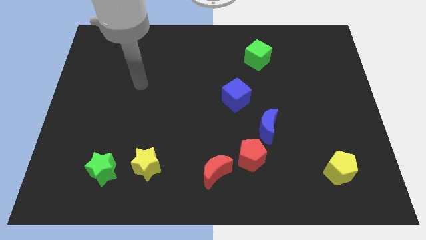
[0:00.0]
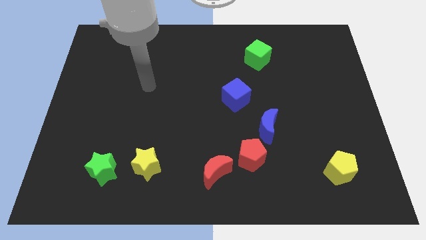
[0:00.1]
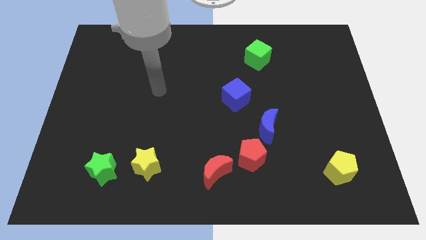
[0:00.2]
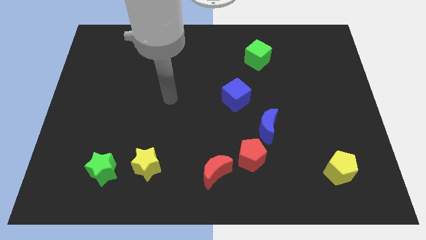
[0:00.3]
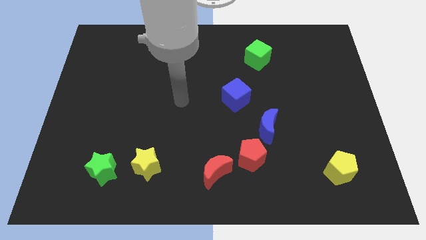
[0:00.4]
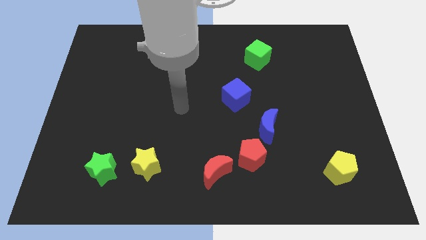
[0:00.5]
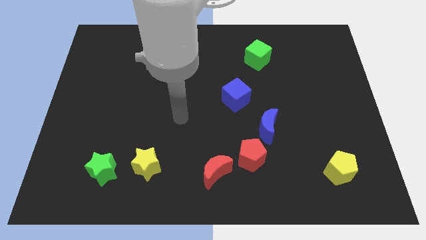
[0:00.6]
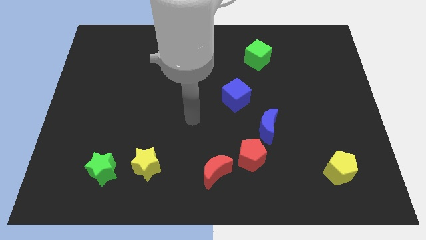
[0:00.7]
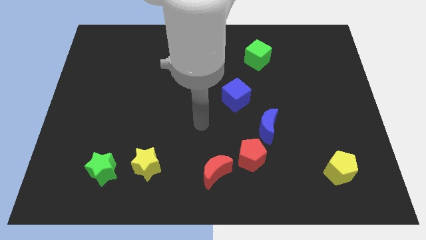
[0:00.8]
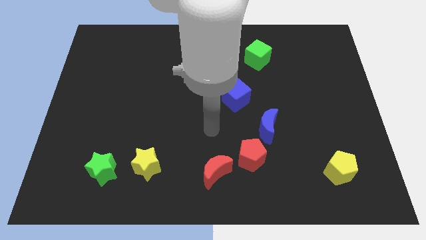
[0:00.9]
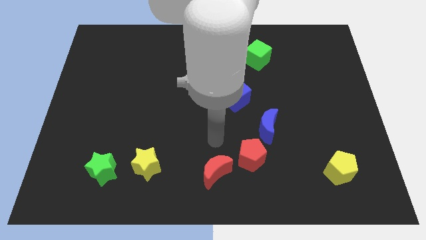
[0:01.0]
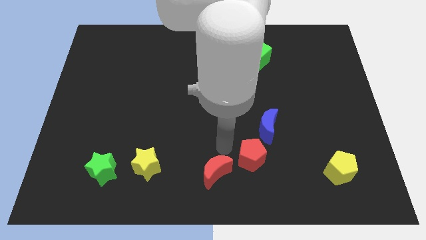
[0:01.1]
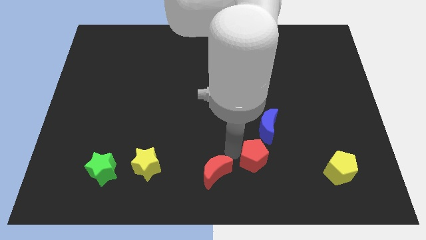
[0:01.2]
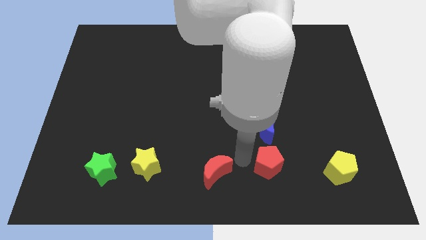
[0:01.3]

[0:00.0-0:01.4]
pull the red moon apart from the red pentagon

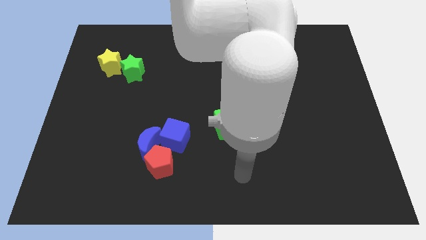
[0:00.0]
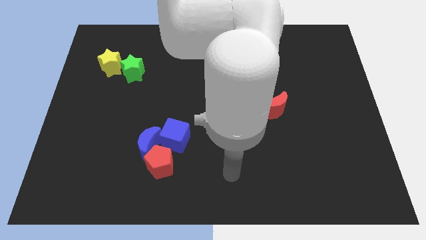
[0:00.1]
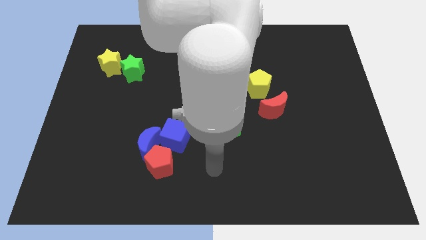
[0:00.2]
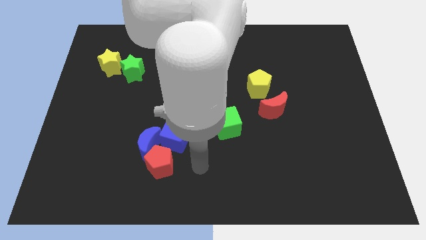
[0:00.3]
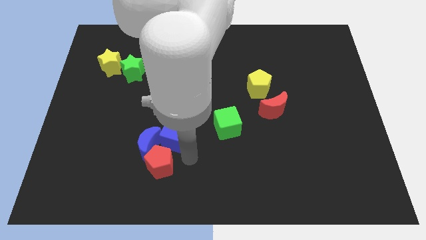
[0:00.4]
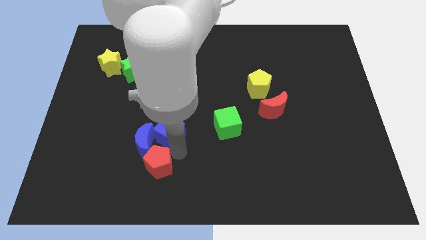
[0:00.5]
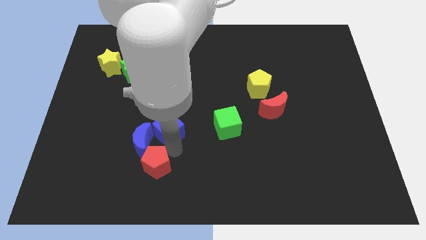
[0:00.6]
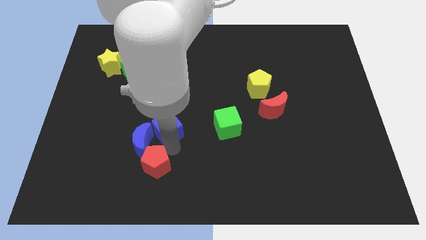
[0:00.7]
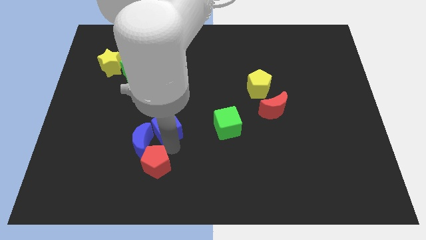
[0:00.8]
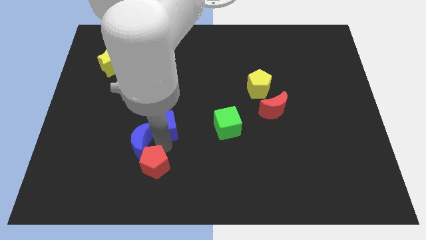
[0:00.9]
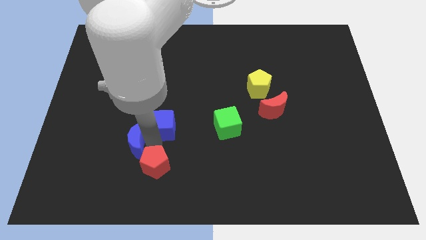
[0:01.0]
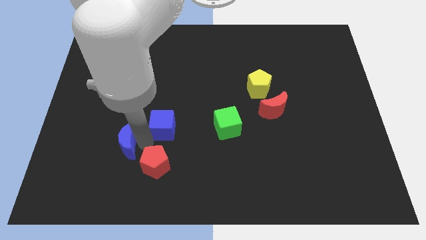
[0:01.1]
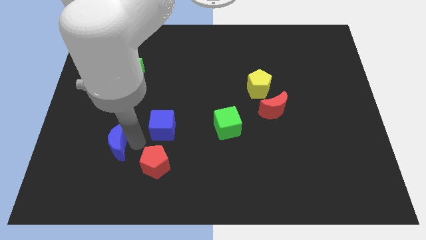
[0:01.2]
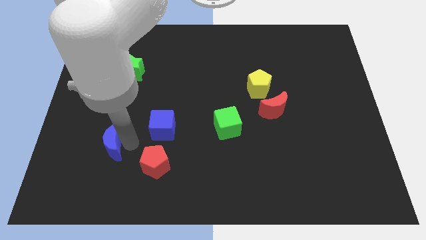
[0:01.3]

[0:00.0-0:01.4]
move the blue moon away from the red pentagon and blue cube

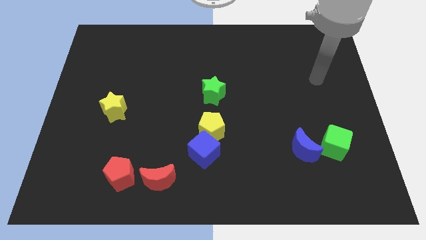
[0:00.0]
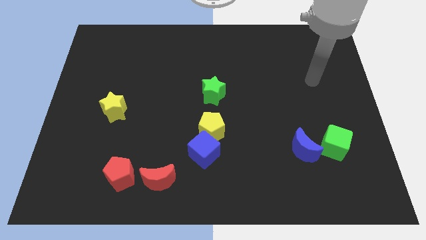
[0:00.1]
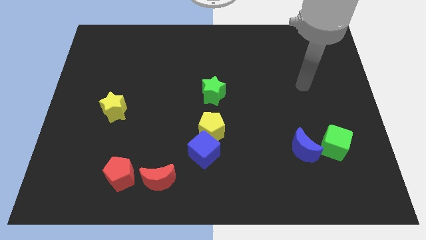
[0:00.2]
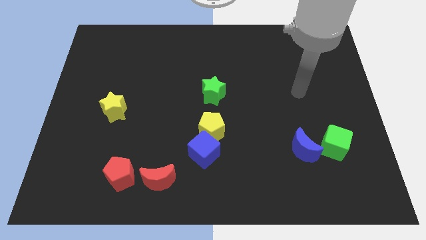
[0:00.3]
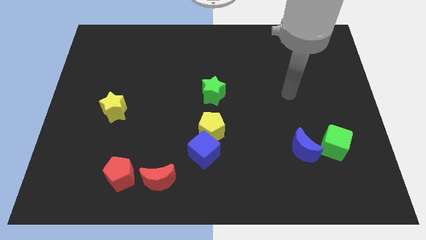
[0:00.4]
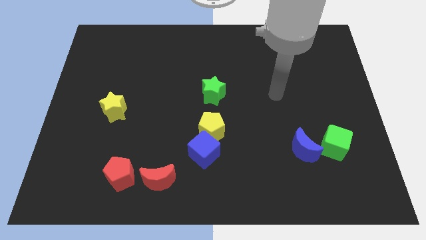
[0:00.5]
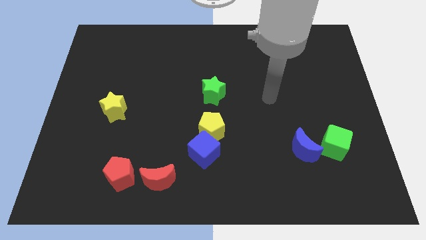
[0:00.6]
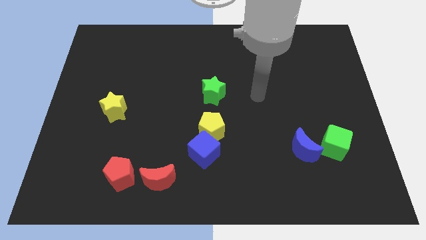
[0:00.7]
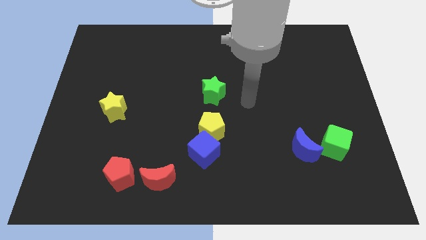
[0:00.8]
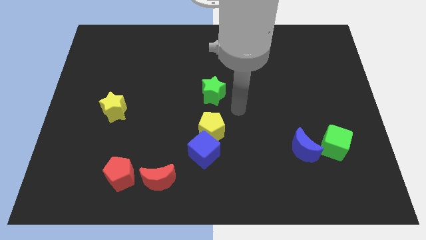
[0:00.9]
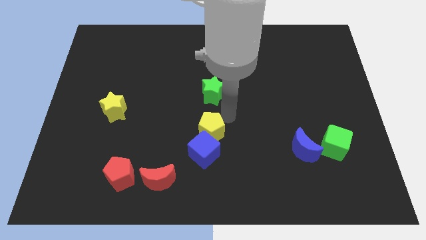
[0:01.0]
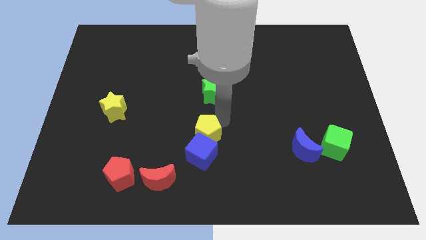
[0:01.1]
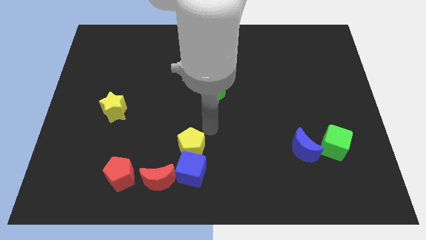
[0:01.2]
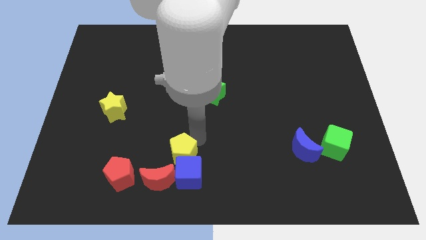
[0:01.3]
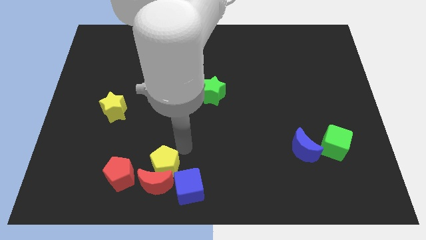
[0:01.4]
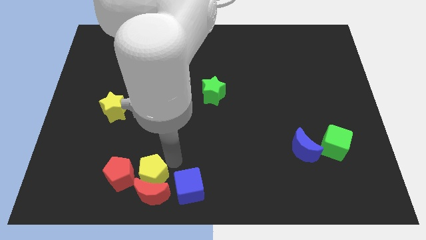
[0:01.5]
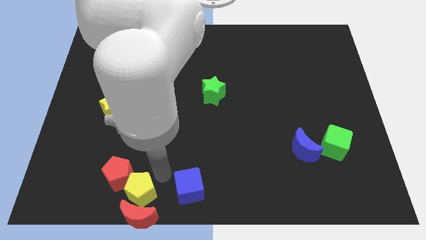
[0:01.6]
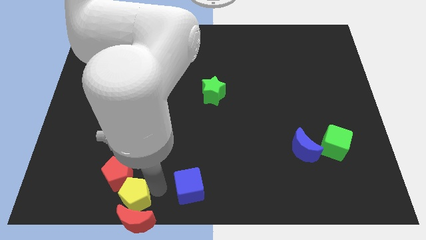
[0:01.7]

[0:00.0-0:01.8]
move the blue cube away from the yellow pentagon

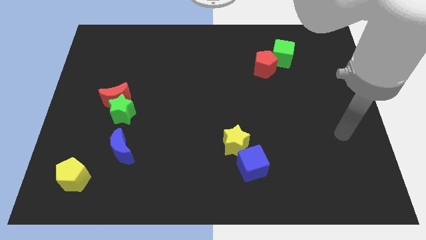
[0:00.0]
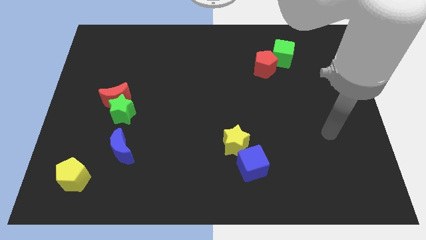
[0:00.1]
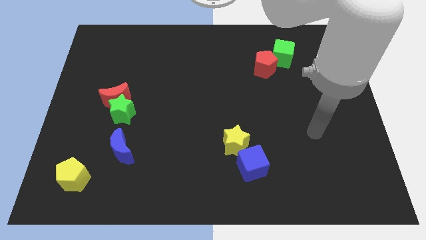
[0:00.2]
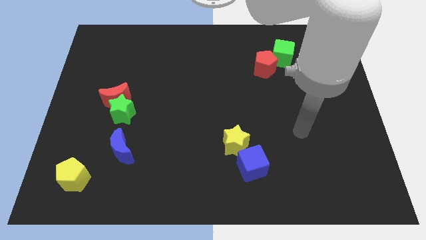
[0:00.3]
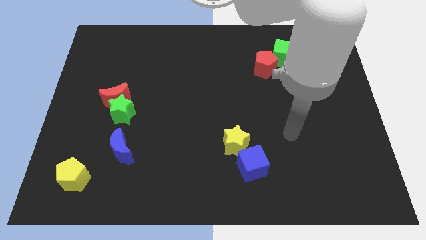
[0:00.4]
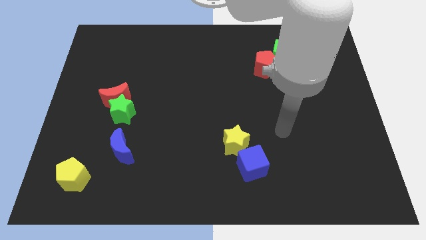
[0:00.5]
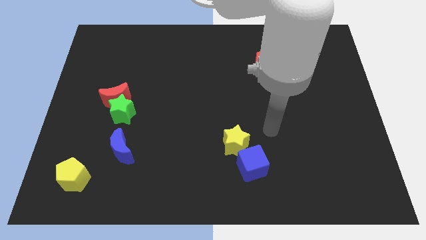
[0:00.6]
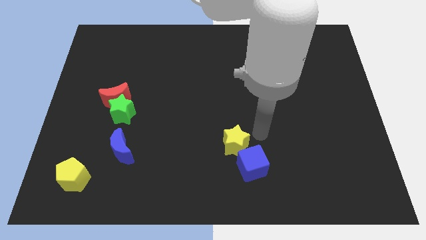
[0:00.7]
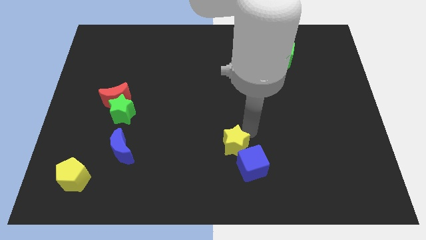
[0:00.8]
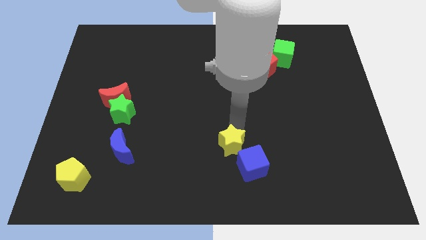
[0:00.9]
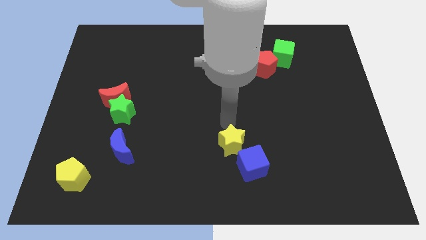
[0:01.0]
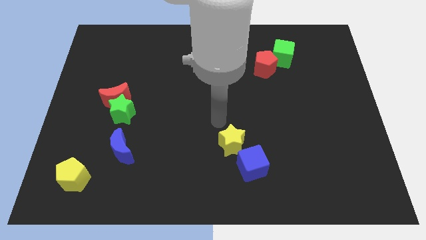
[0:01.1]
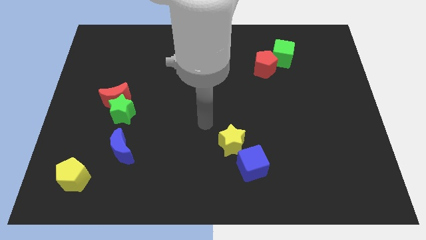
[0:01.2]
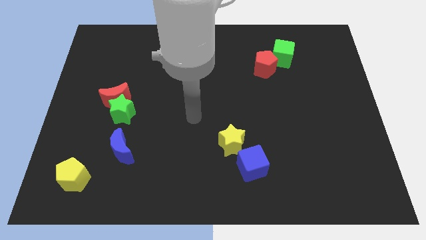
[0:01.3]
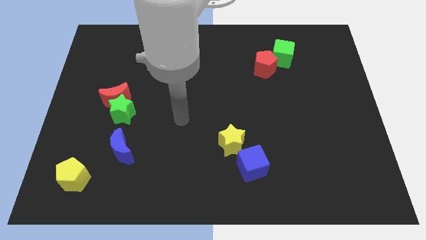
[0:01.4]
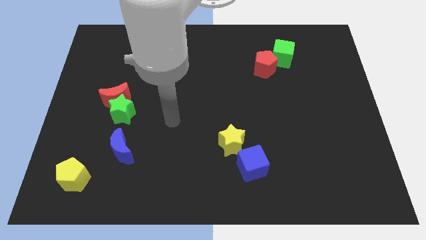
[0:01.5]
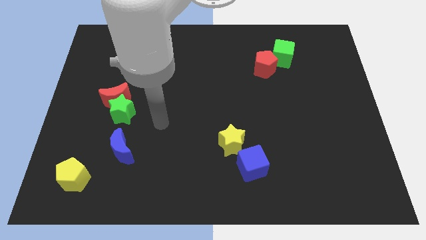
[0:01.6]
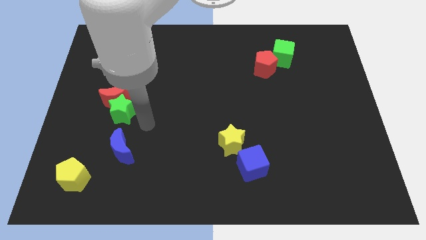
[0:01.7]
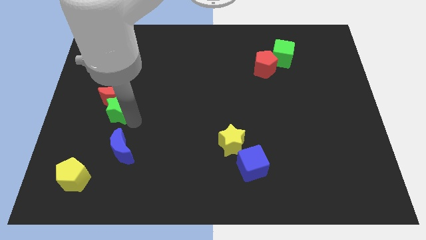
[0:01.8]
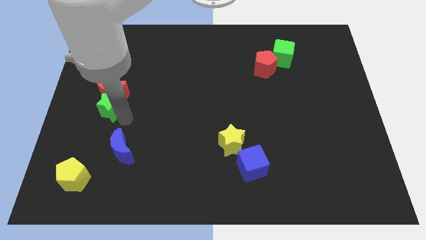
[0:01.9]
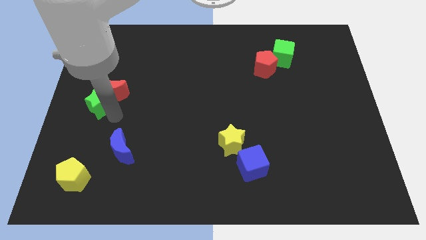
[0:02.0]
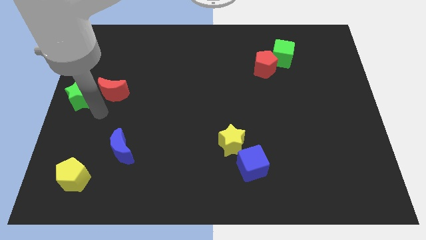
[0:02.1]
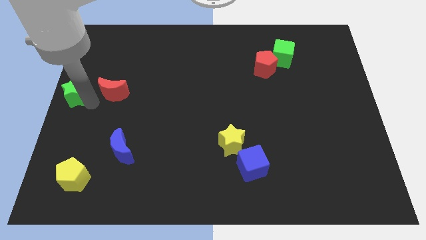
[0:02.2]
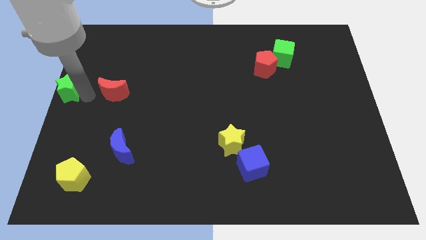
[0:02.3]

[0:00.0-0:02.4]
pull the red moon apart from the green star

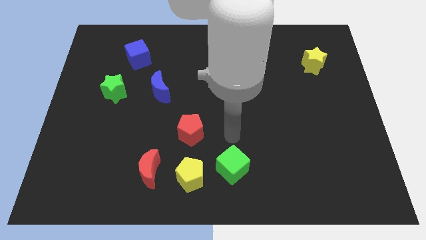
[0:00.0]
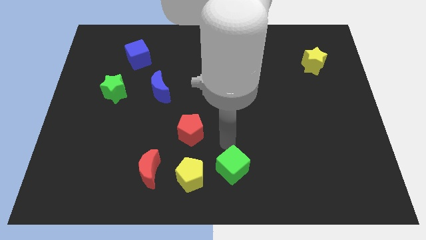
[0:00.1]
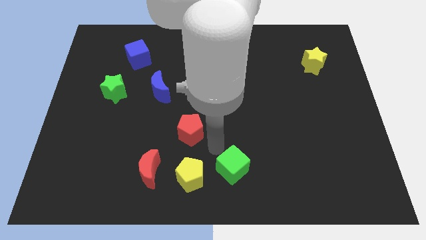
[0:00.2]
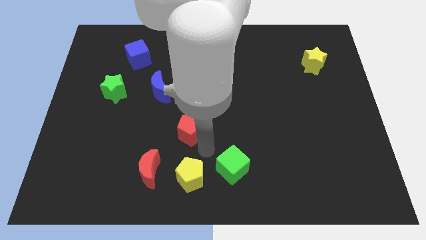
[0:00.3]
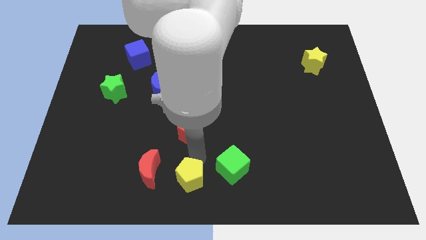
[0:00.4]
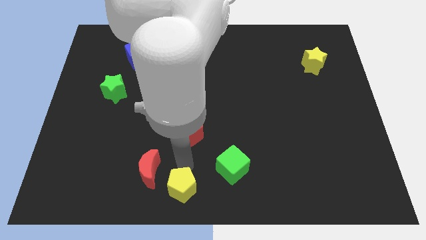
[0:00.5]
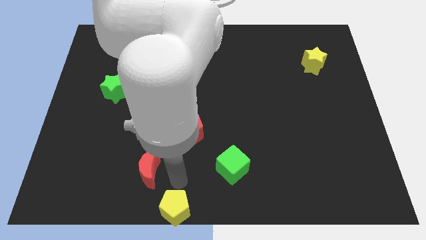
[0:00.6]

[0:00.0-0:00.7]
separate the red moon from the yellow pentagon

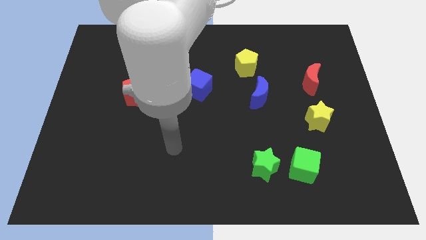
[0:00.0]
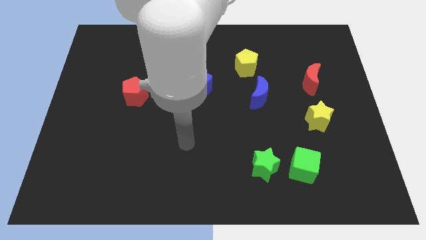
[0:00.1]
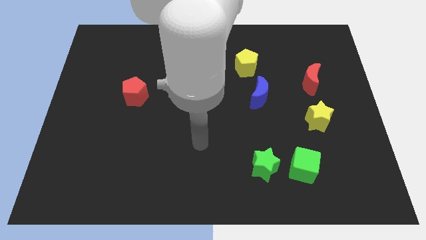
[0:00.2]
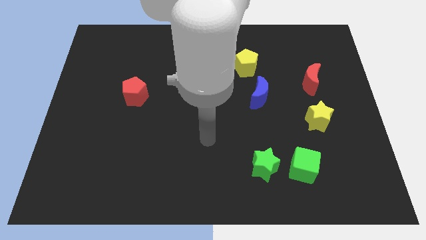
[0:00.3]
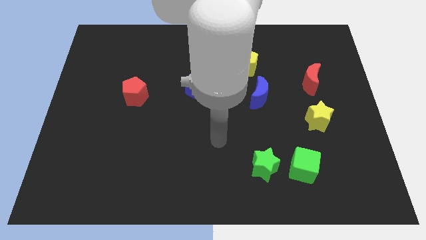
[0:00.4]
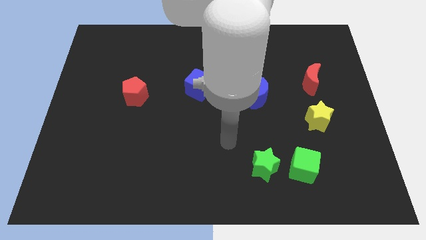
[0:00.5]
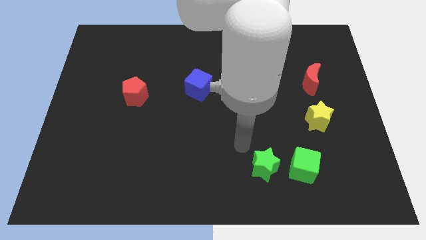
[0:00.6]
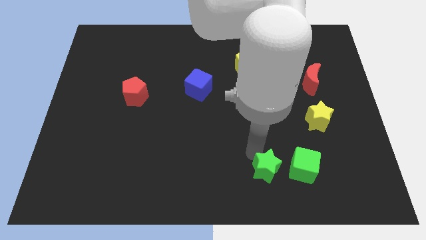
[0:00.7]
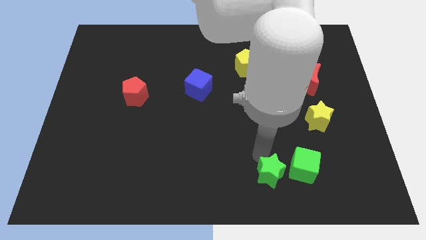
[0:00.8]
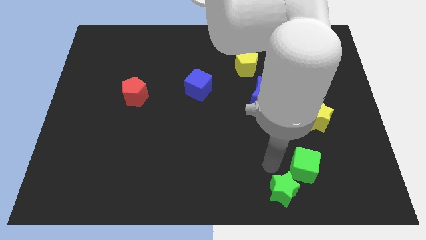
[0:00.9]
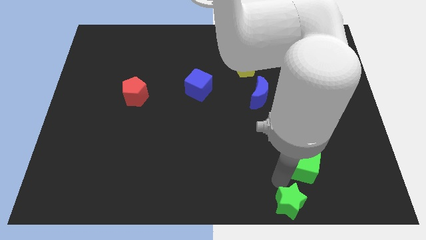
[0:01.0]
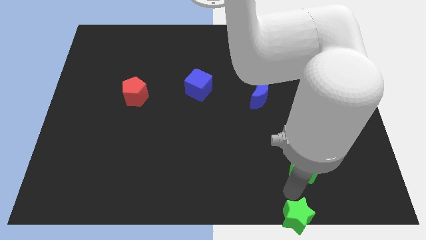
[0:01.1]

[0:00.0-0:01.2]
pull the green cube apart from the green star

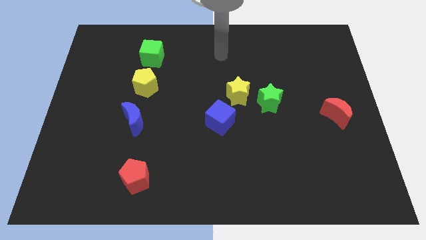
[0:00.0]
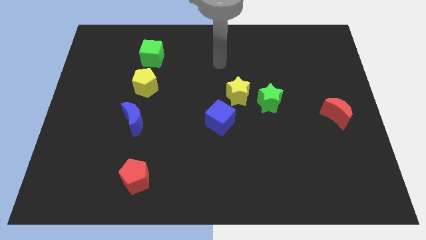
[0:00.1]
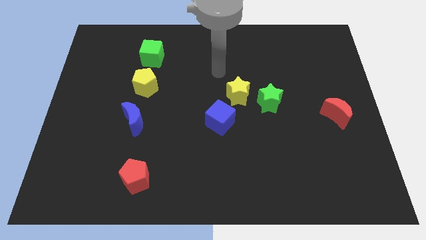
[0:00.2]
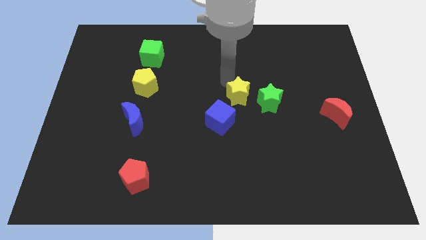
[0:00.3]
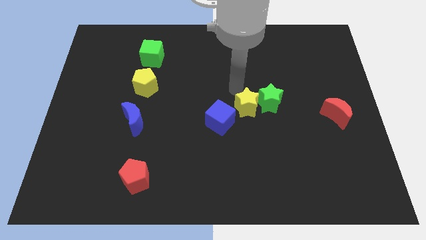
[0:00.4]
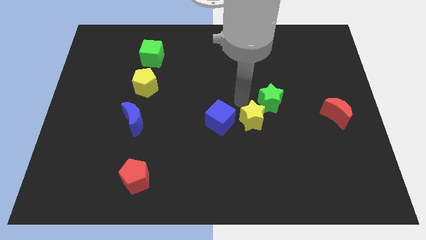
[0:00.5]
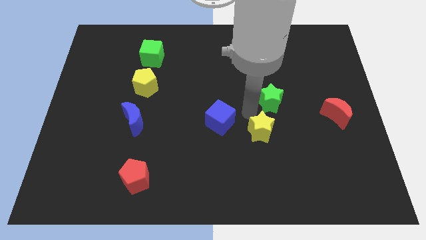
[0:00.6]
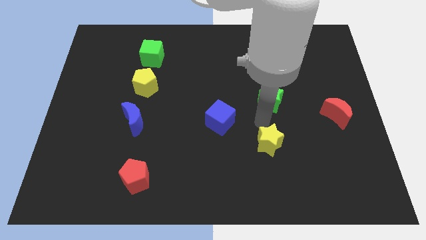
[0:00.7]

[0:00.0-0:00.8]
separate the green star from the yellow star
